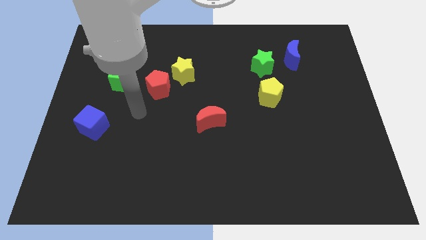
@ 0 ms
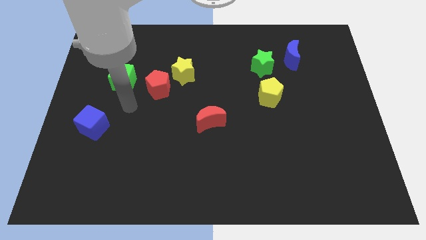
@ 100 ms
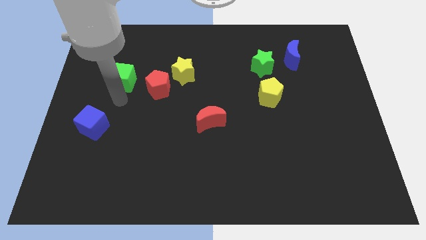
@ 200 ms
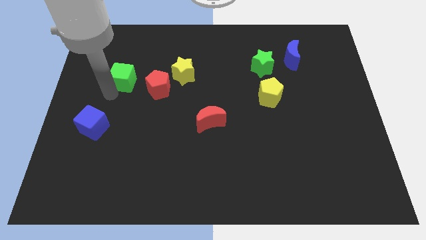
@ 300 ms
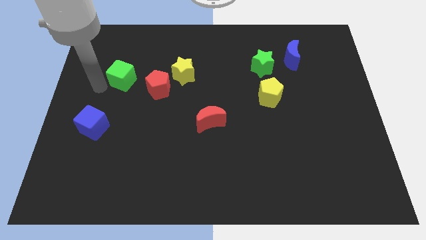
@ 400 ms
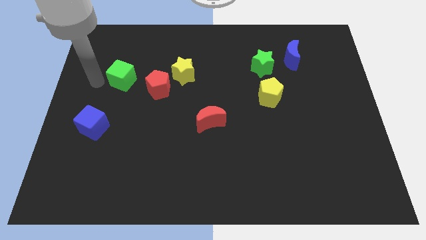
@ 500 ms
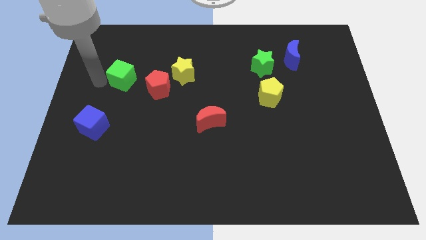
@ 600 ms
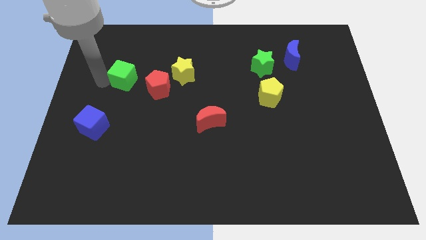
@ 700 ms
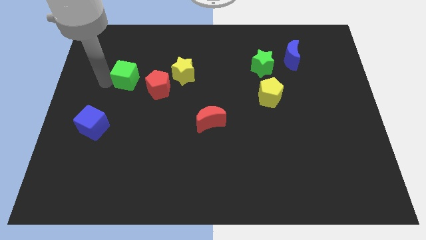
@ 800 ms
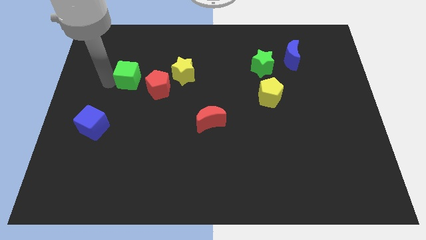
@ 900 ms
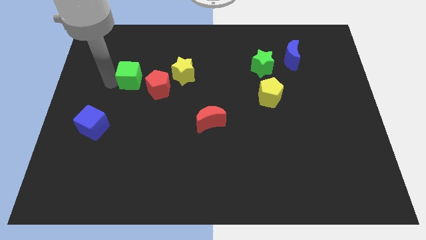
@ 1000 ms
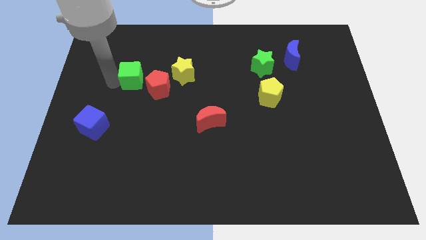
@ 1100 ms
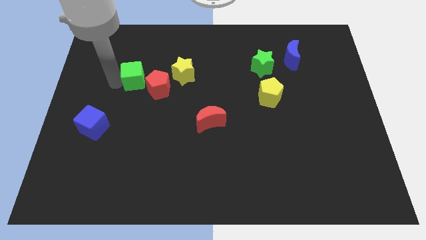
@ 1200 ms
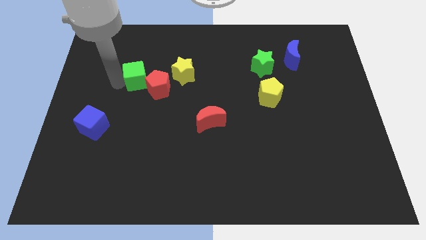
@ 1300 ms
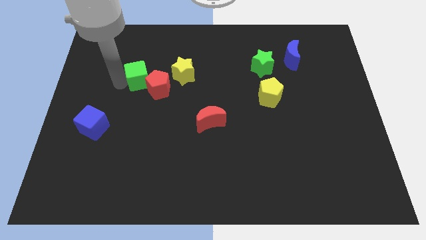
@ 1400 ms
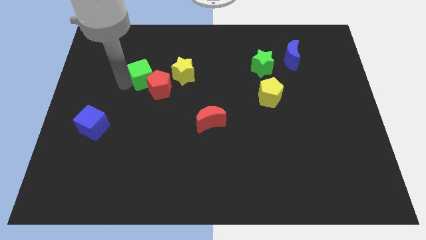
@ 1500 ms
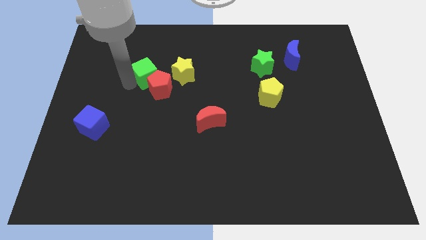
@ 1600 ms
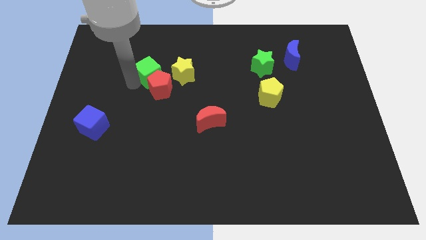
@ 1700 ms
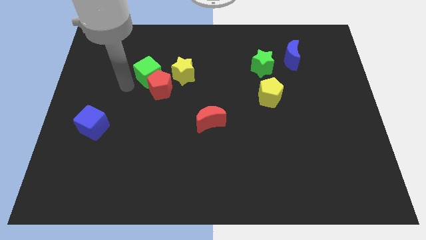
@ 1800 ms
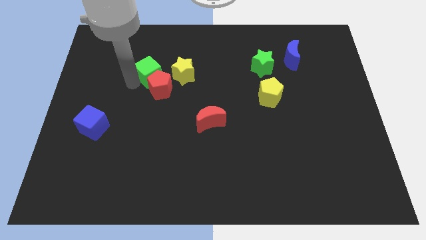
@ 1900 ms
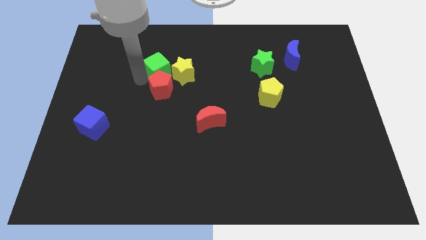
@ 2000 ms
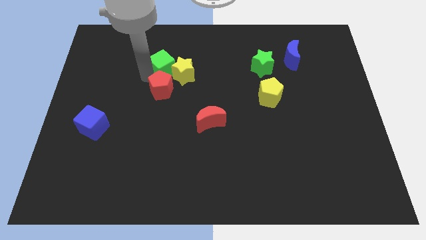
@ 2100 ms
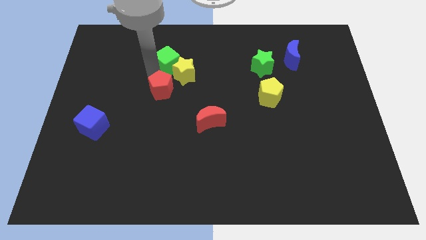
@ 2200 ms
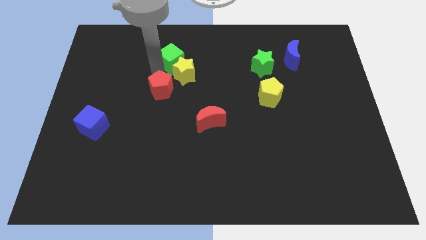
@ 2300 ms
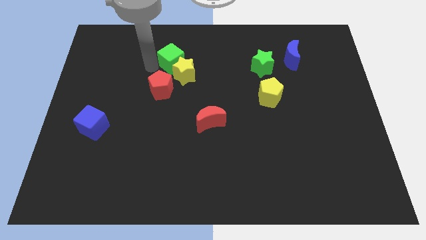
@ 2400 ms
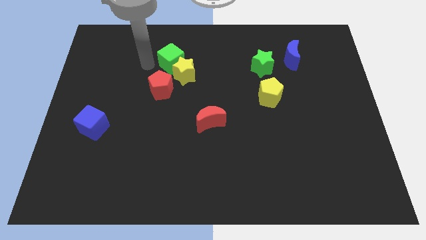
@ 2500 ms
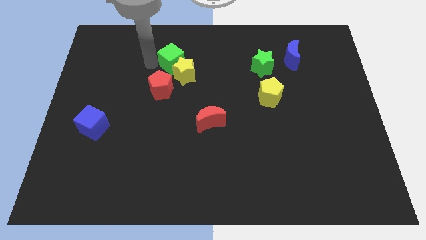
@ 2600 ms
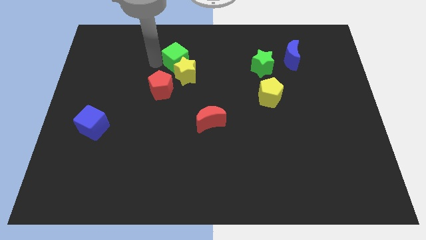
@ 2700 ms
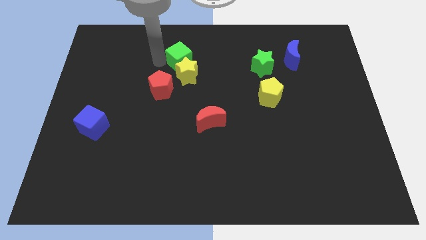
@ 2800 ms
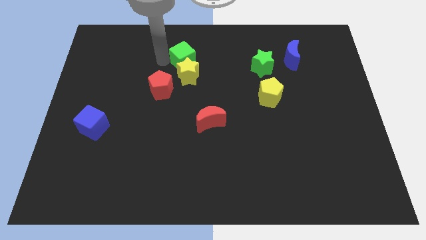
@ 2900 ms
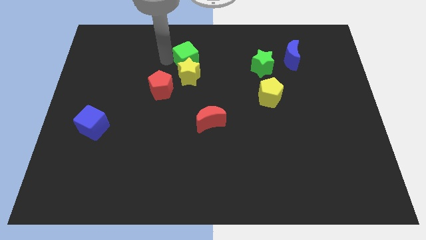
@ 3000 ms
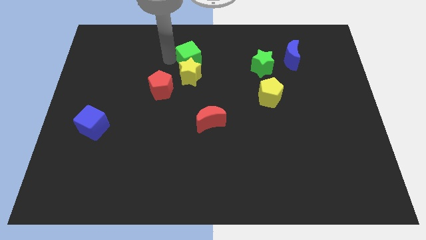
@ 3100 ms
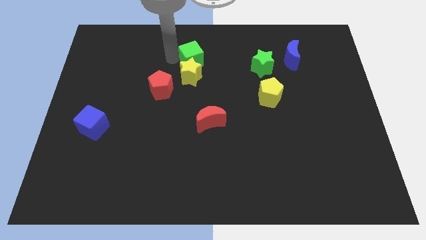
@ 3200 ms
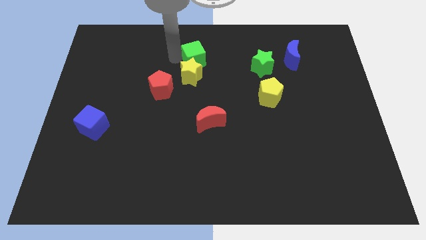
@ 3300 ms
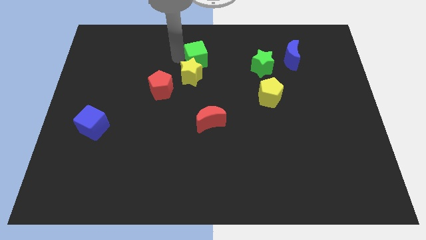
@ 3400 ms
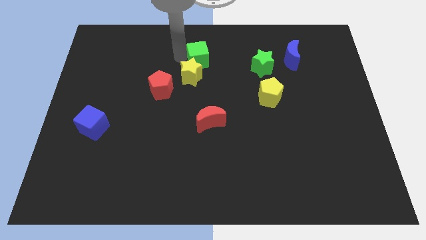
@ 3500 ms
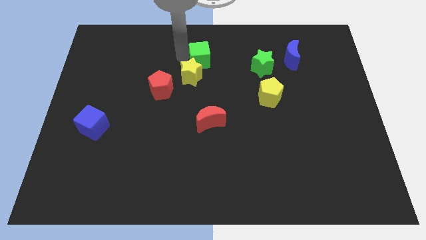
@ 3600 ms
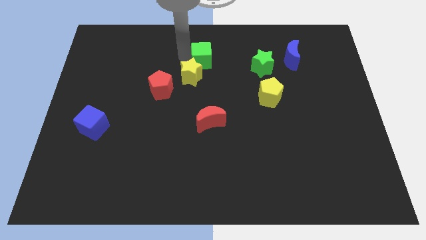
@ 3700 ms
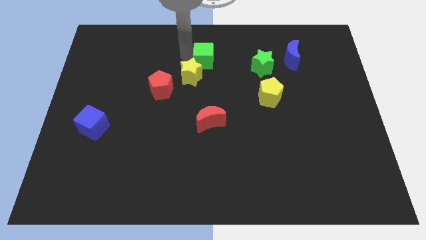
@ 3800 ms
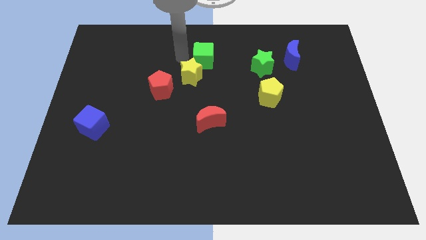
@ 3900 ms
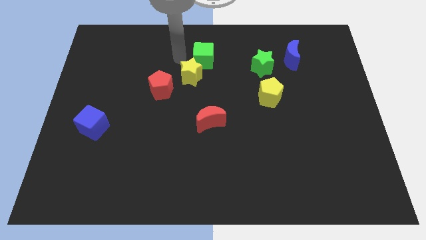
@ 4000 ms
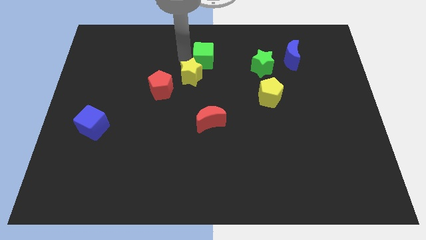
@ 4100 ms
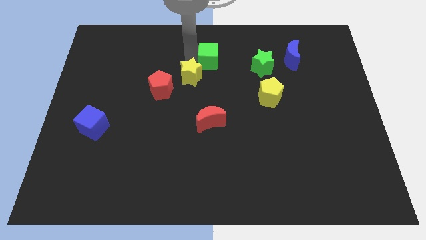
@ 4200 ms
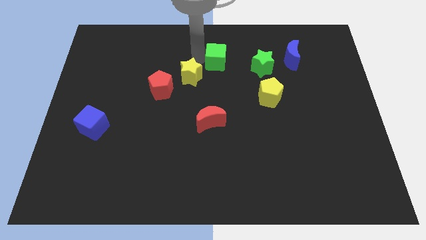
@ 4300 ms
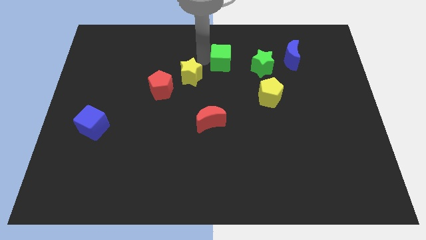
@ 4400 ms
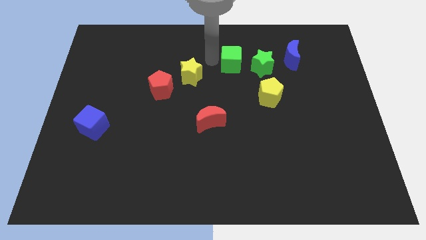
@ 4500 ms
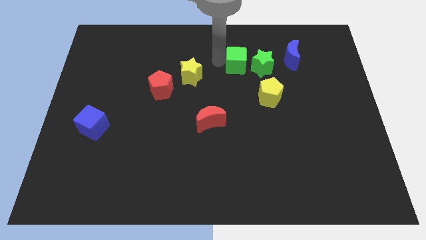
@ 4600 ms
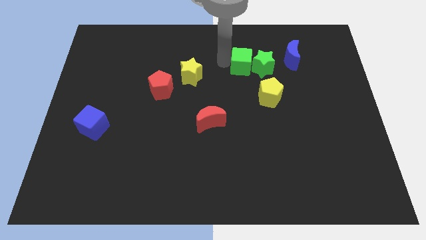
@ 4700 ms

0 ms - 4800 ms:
put the green cube next to the green star

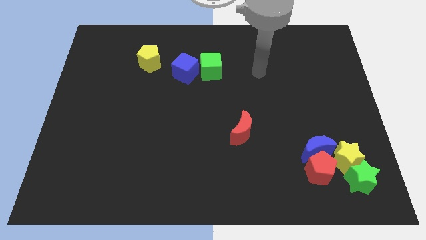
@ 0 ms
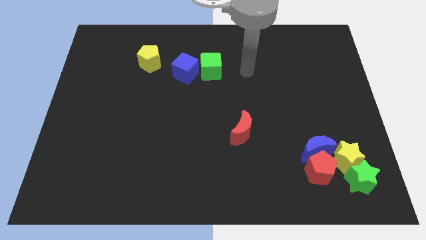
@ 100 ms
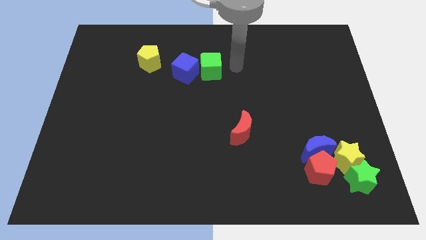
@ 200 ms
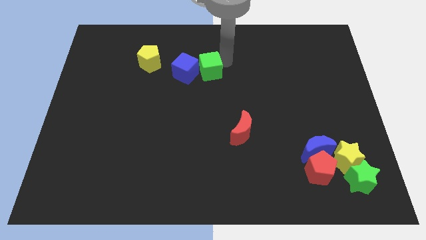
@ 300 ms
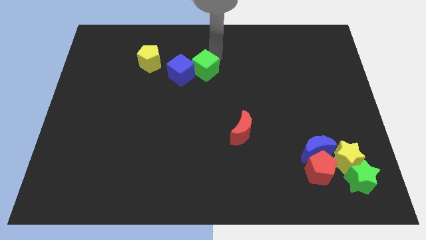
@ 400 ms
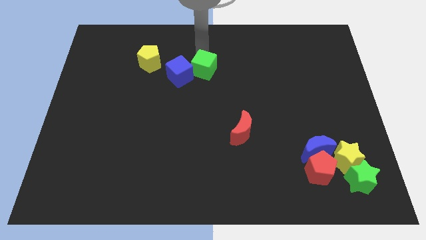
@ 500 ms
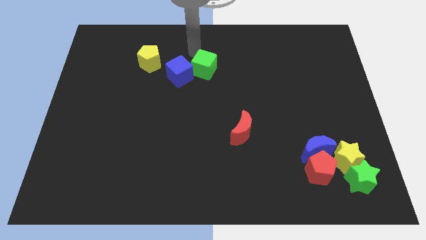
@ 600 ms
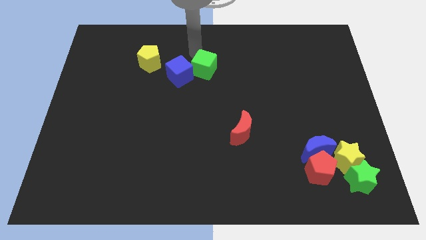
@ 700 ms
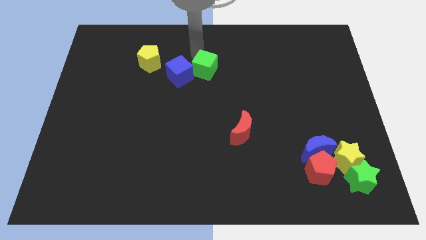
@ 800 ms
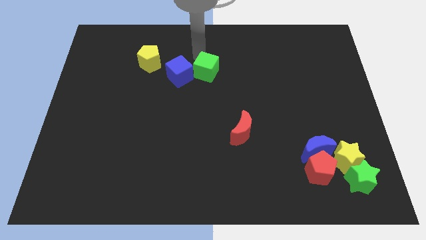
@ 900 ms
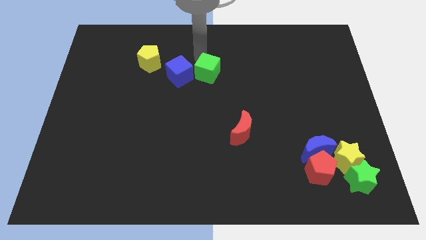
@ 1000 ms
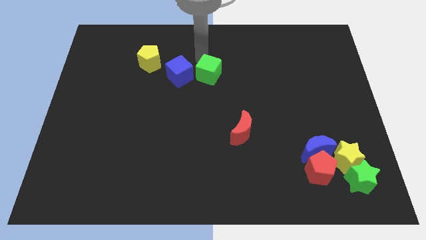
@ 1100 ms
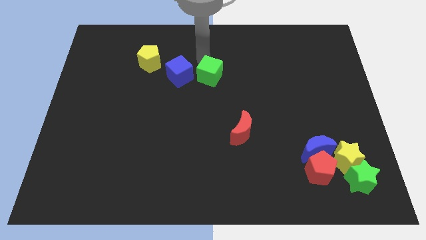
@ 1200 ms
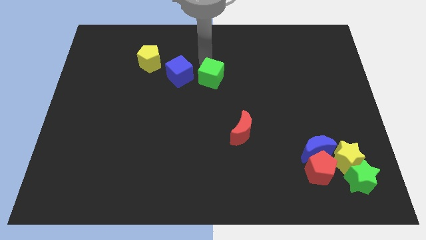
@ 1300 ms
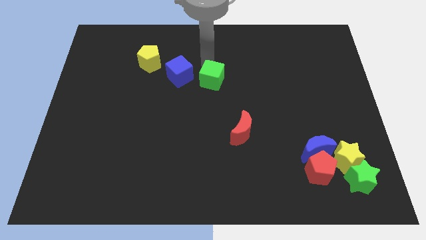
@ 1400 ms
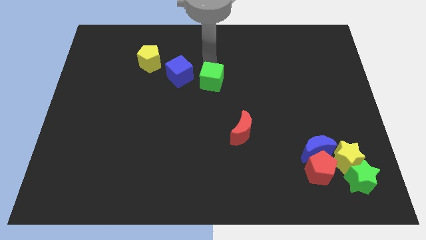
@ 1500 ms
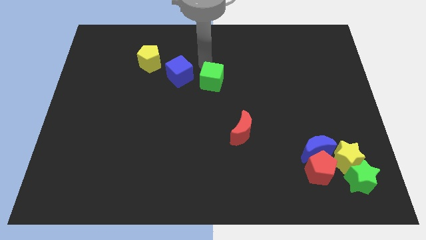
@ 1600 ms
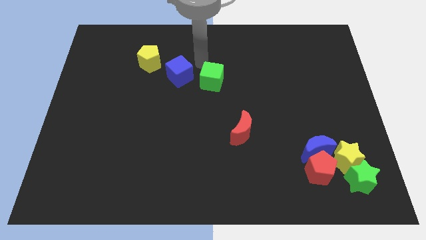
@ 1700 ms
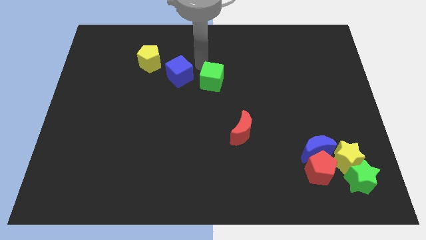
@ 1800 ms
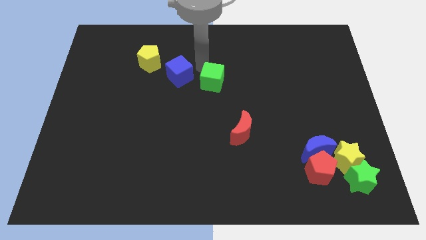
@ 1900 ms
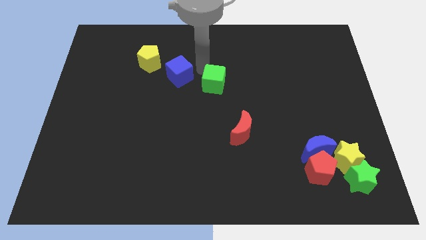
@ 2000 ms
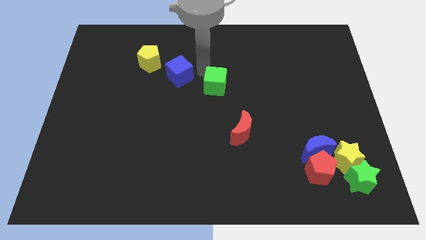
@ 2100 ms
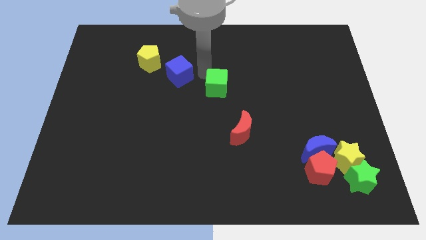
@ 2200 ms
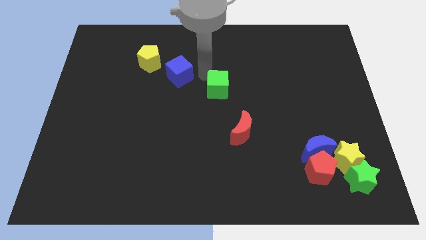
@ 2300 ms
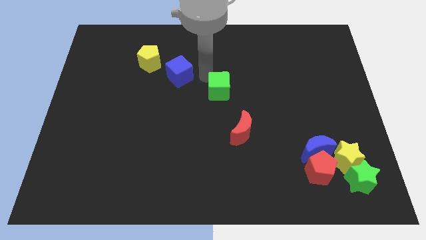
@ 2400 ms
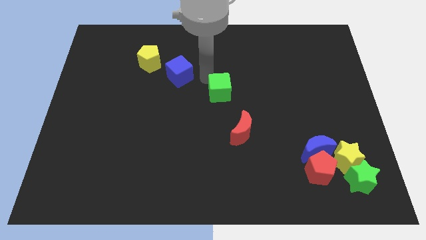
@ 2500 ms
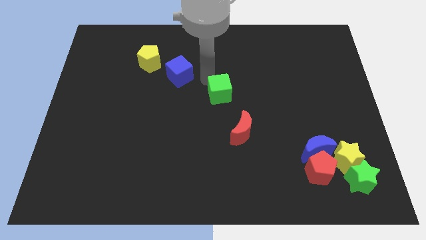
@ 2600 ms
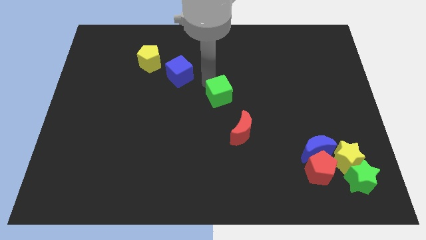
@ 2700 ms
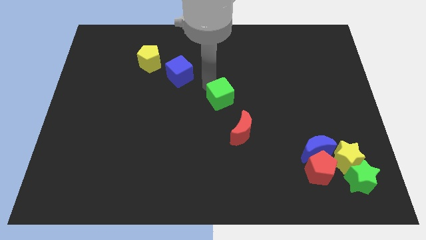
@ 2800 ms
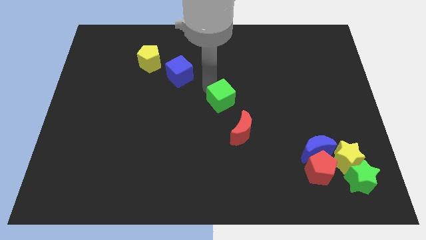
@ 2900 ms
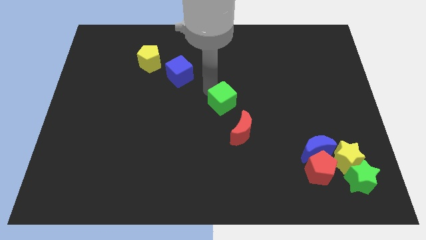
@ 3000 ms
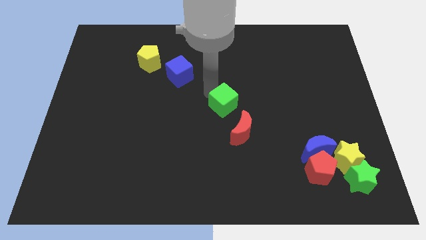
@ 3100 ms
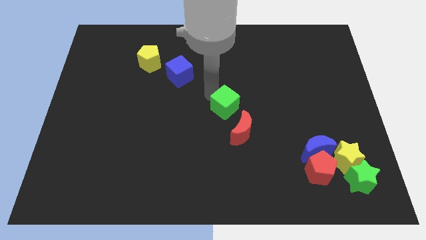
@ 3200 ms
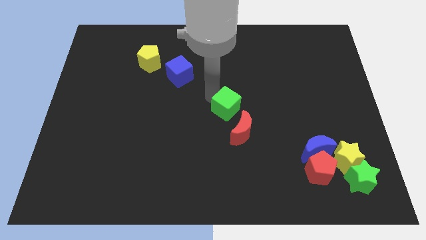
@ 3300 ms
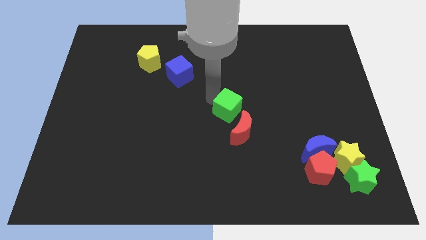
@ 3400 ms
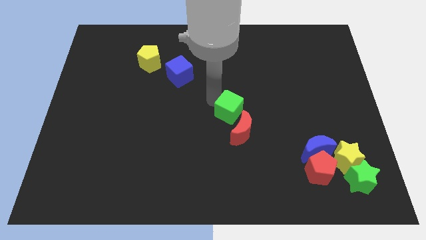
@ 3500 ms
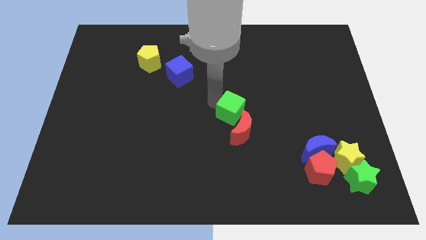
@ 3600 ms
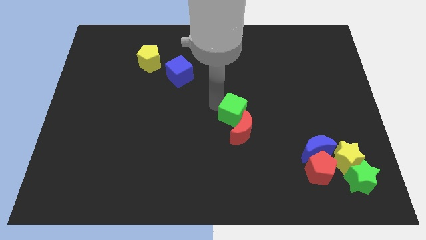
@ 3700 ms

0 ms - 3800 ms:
push the green cube next to the red moon
